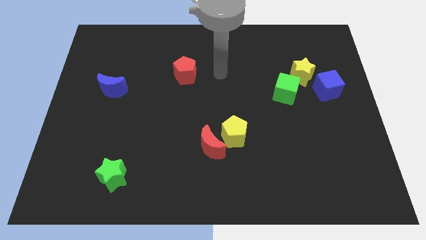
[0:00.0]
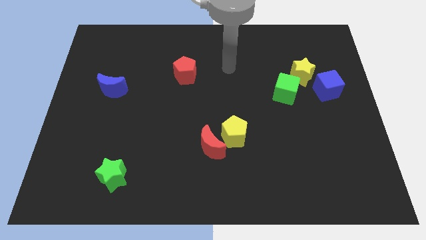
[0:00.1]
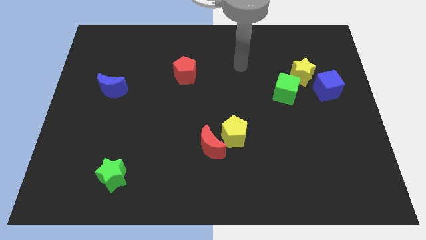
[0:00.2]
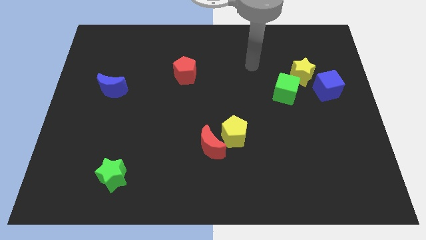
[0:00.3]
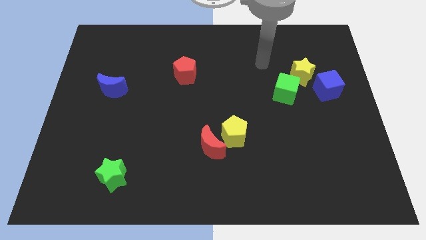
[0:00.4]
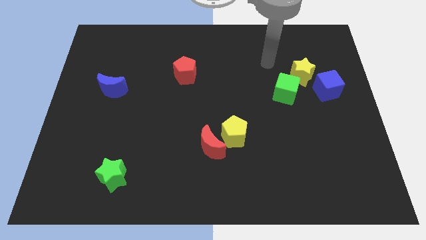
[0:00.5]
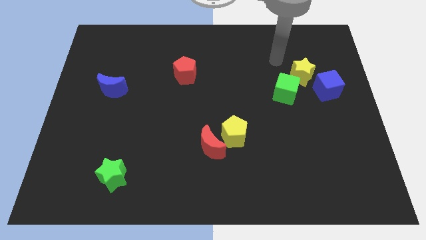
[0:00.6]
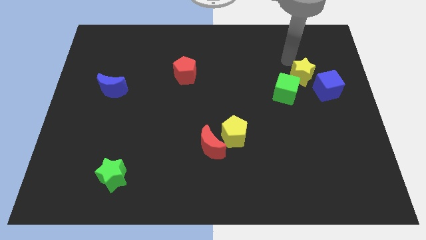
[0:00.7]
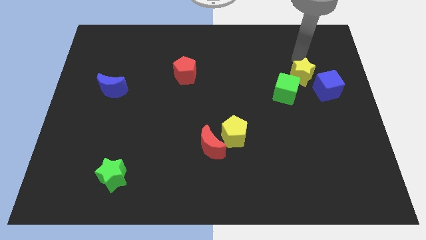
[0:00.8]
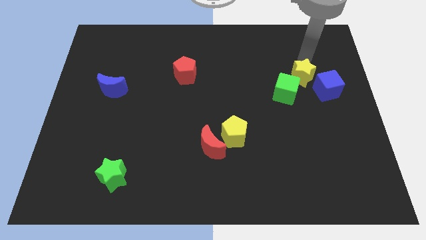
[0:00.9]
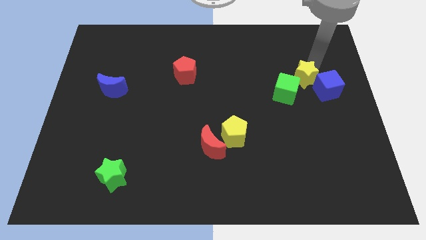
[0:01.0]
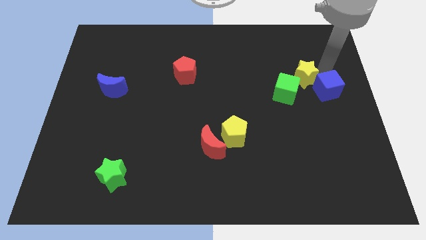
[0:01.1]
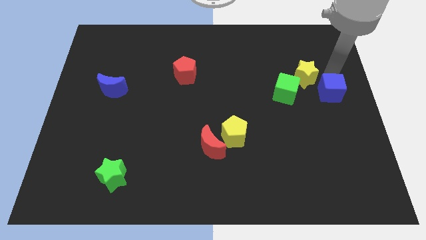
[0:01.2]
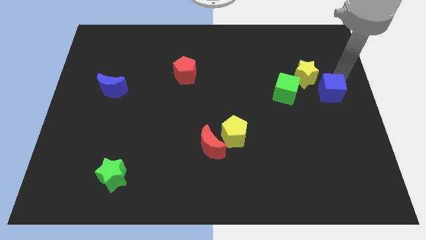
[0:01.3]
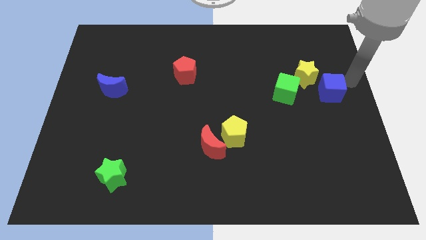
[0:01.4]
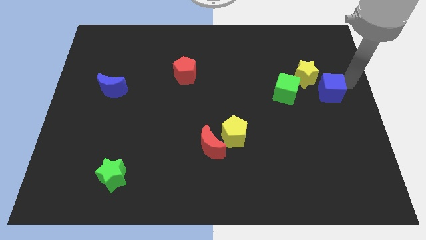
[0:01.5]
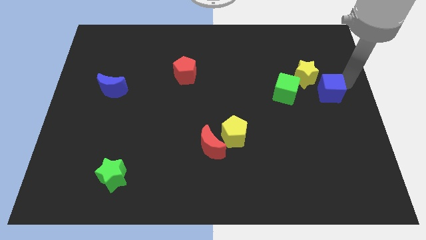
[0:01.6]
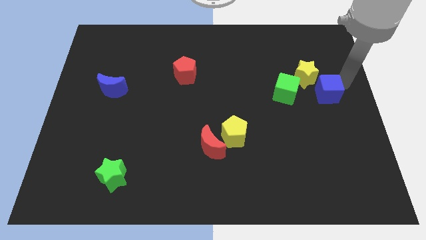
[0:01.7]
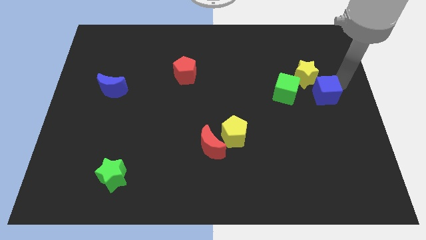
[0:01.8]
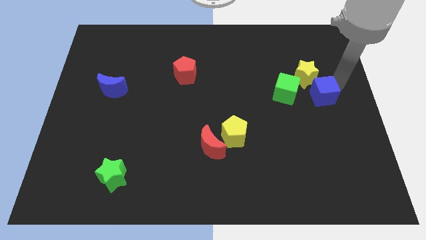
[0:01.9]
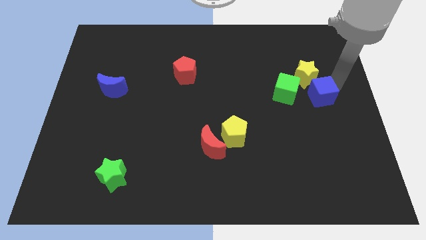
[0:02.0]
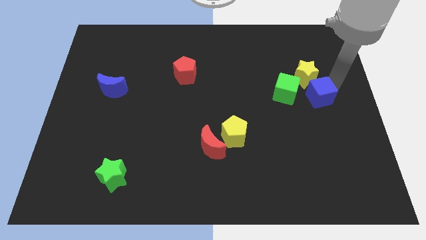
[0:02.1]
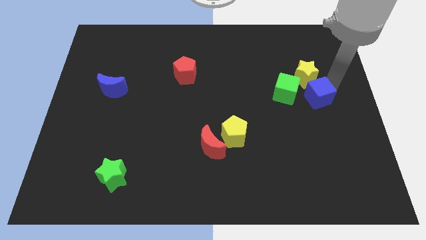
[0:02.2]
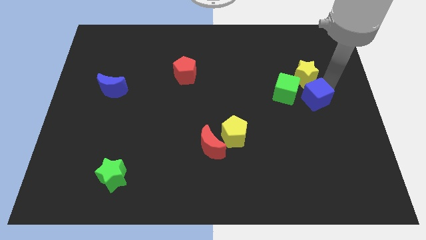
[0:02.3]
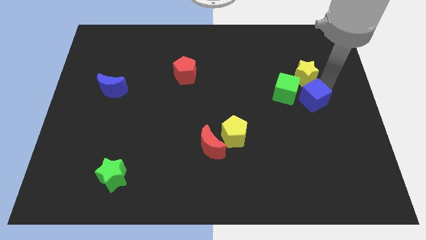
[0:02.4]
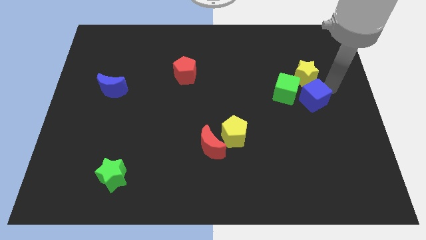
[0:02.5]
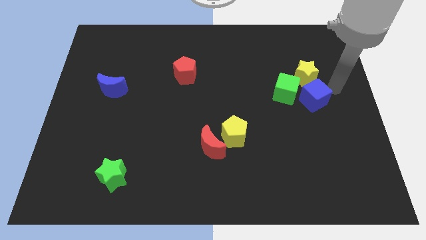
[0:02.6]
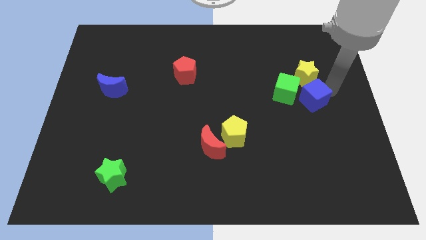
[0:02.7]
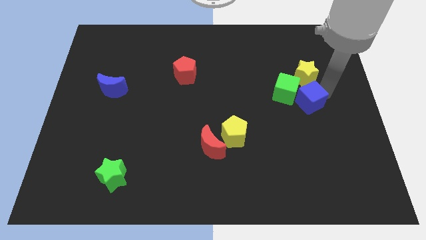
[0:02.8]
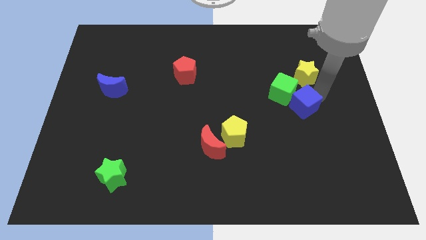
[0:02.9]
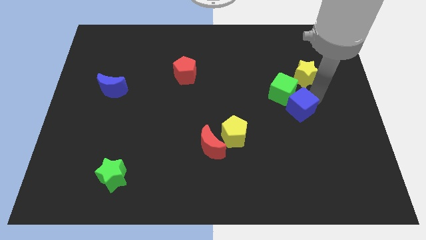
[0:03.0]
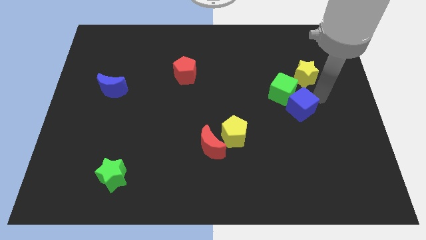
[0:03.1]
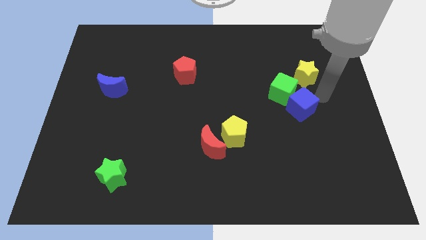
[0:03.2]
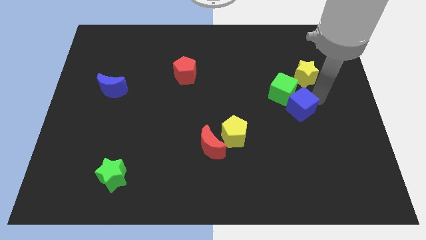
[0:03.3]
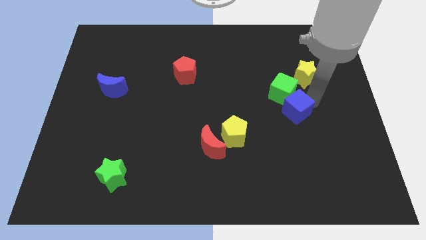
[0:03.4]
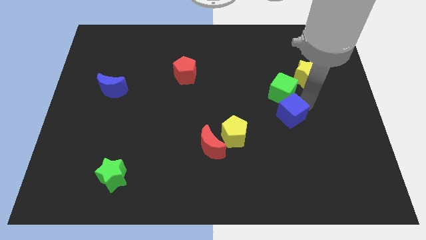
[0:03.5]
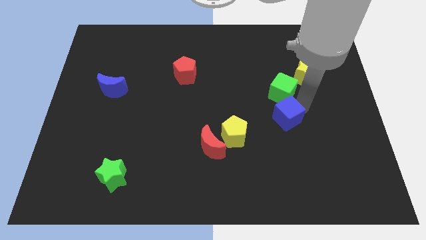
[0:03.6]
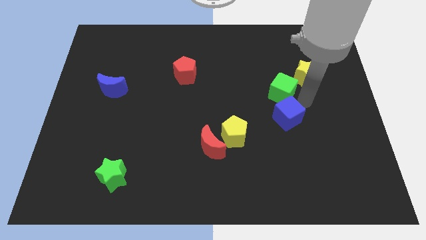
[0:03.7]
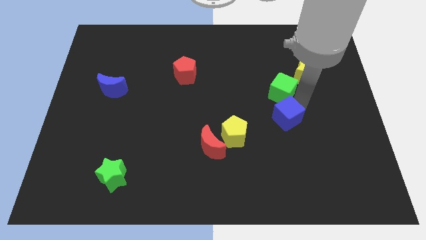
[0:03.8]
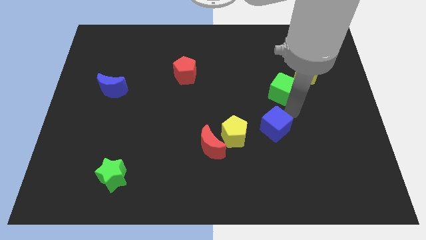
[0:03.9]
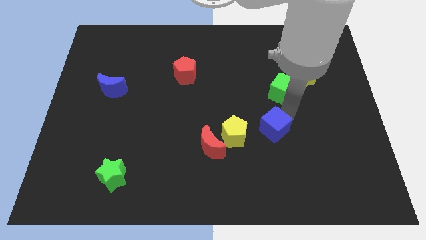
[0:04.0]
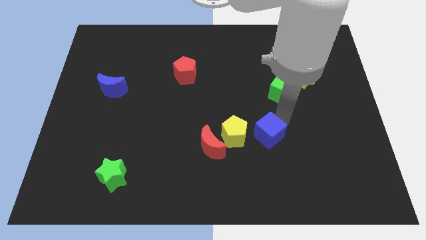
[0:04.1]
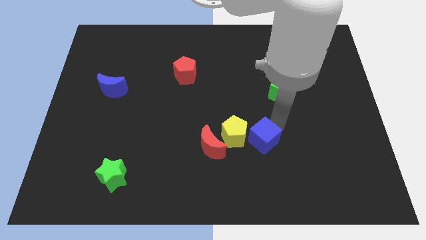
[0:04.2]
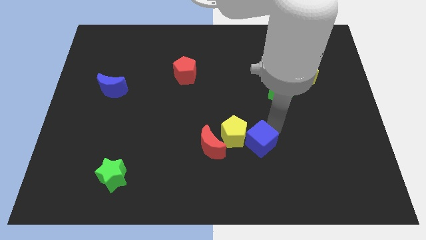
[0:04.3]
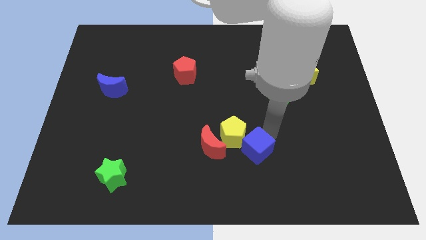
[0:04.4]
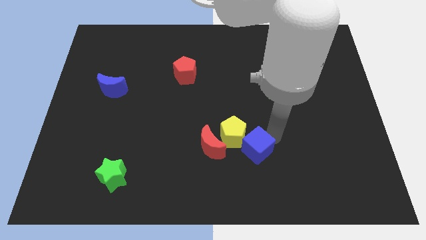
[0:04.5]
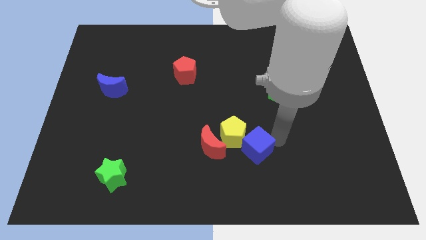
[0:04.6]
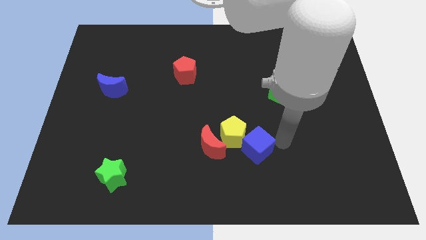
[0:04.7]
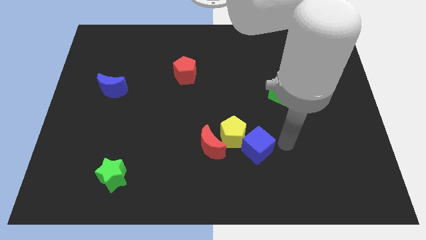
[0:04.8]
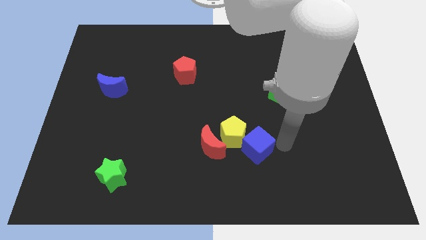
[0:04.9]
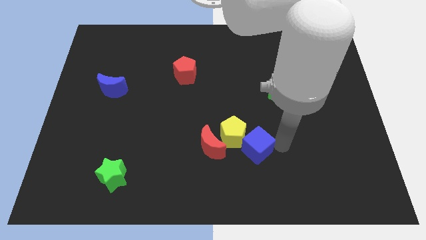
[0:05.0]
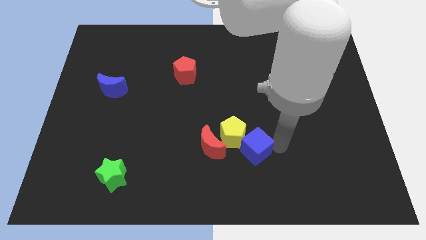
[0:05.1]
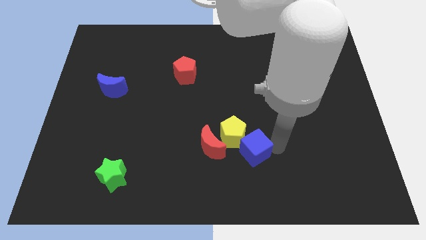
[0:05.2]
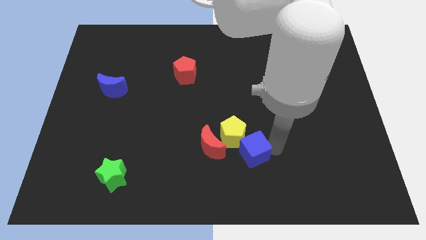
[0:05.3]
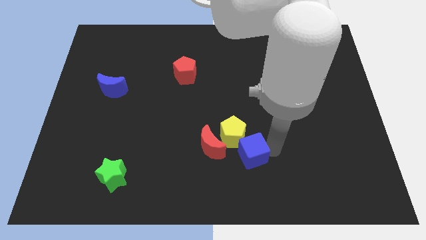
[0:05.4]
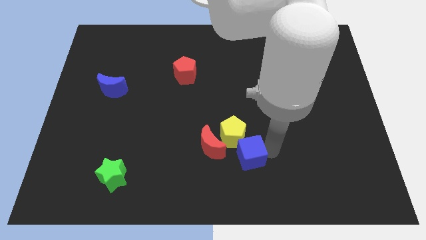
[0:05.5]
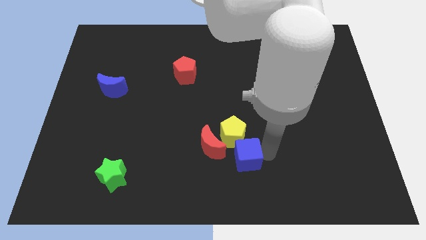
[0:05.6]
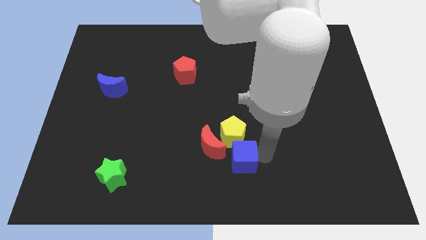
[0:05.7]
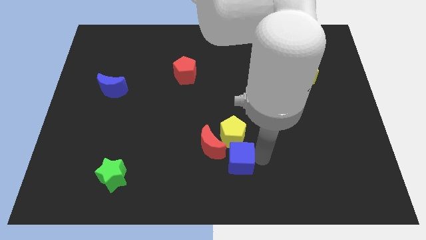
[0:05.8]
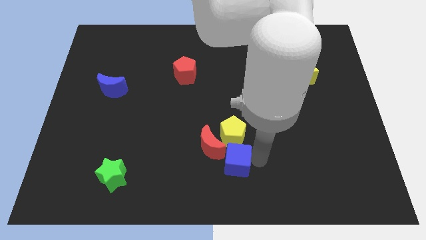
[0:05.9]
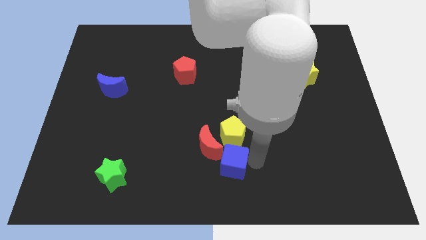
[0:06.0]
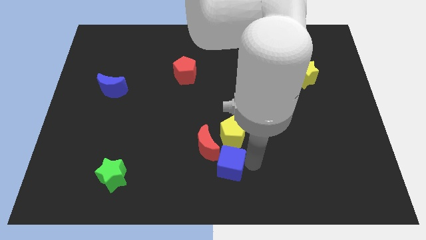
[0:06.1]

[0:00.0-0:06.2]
move the blue cube to the bottom left side of the yellow pentagon

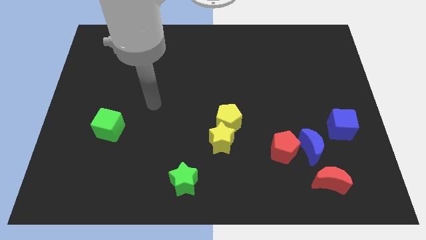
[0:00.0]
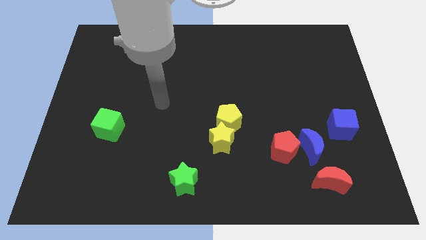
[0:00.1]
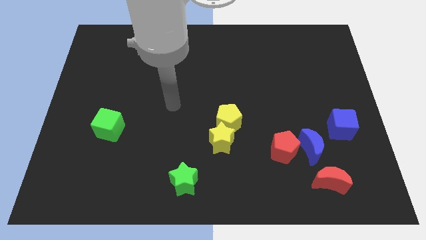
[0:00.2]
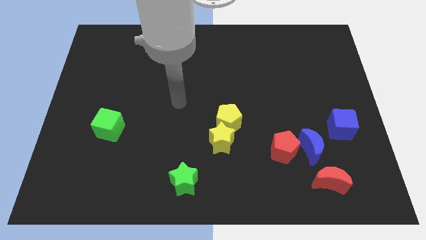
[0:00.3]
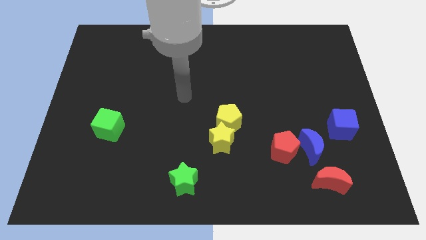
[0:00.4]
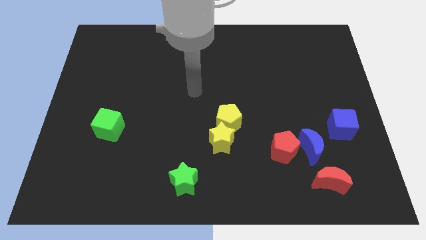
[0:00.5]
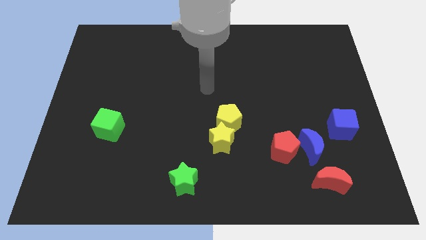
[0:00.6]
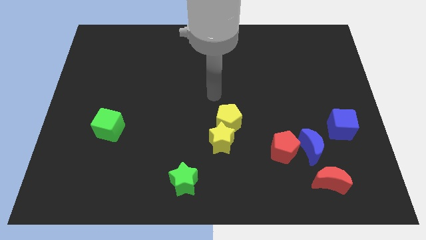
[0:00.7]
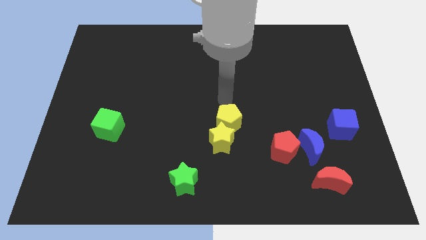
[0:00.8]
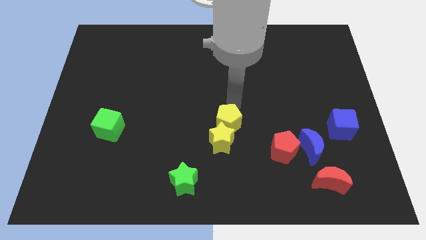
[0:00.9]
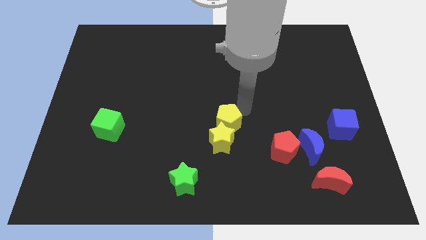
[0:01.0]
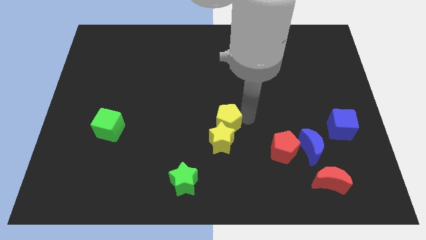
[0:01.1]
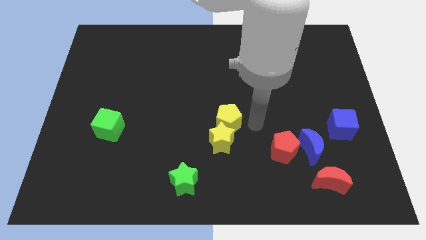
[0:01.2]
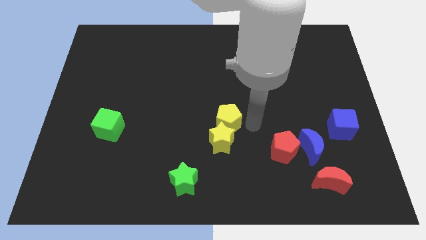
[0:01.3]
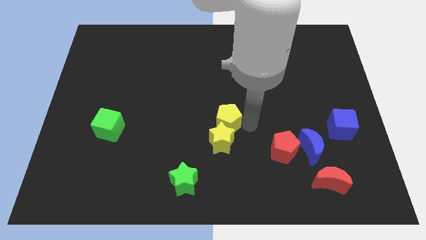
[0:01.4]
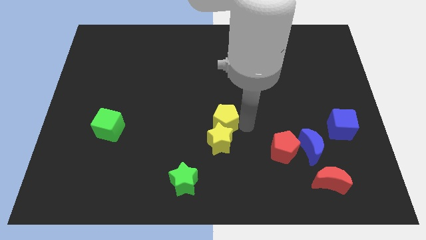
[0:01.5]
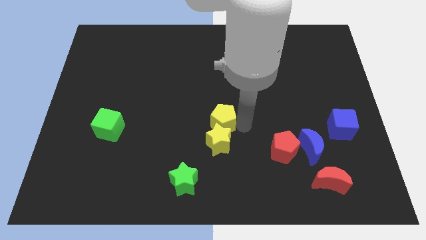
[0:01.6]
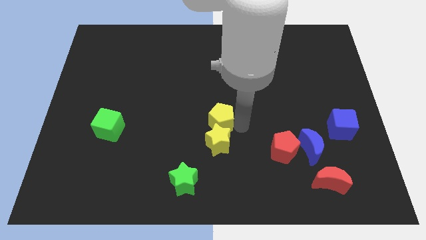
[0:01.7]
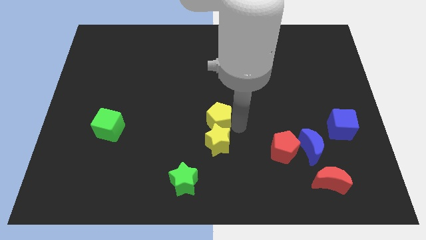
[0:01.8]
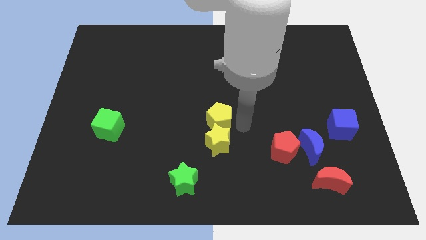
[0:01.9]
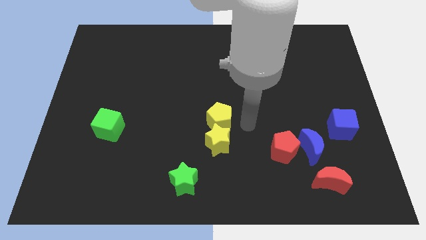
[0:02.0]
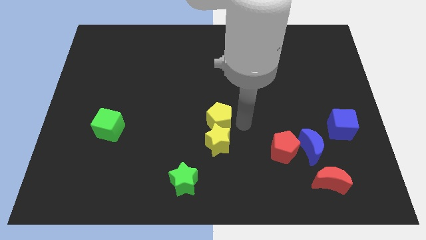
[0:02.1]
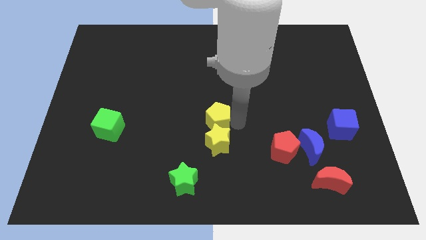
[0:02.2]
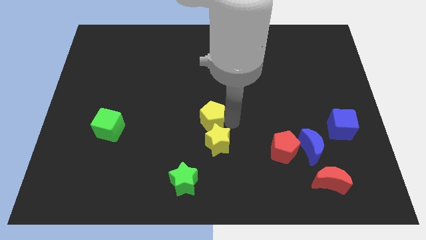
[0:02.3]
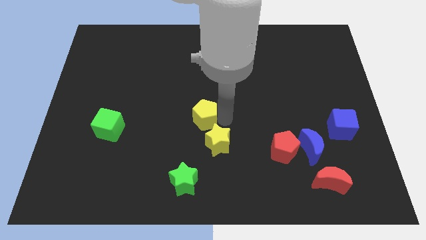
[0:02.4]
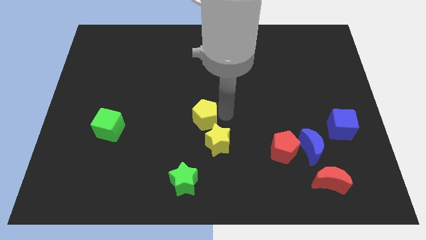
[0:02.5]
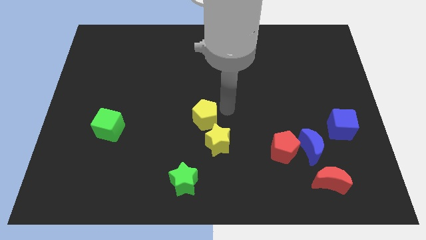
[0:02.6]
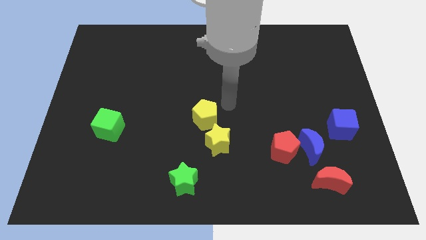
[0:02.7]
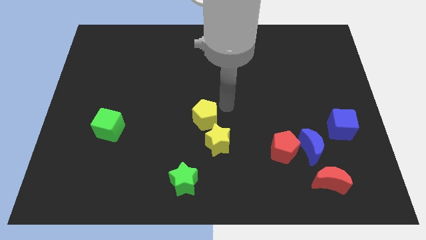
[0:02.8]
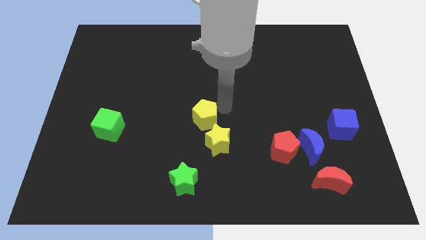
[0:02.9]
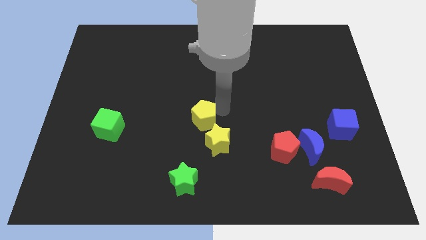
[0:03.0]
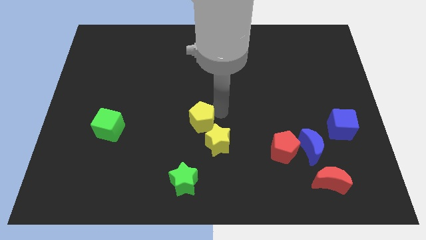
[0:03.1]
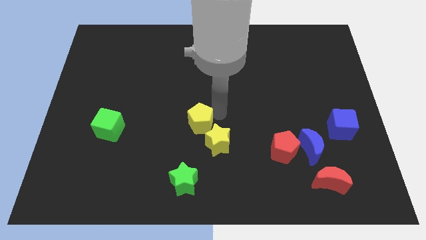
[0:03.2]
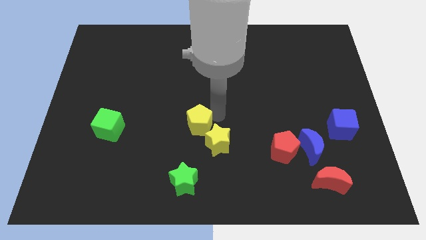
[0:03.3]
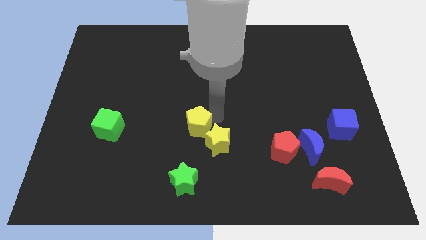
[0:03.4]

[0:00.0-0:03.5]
slide the yellow pentagon to the left side of the yellow star
